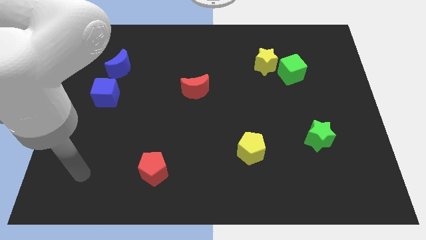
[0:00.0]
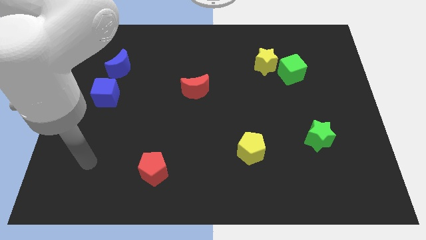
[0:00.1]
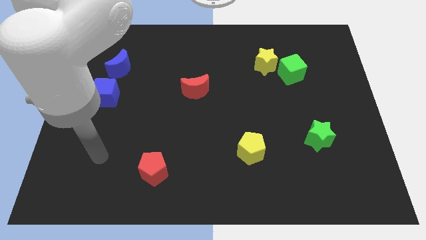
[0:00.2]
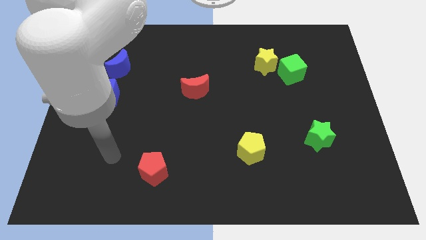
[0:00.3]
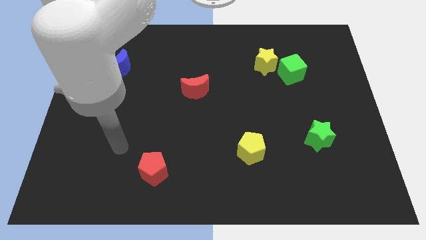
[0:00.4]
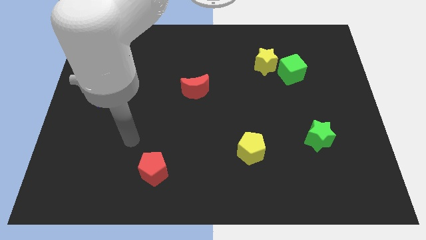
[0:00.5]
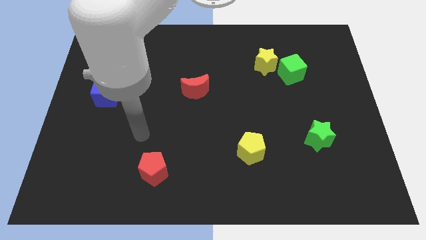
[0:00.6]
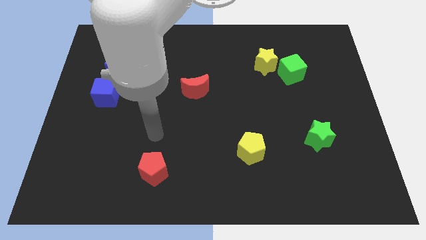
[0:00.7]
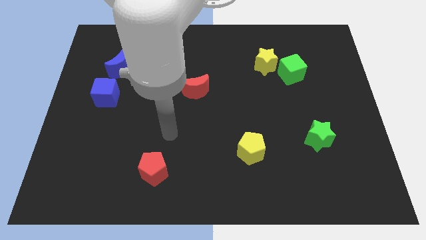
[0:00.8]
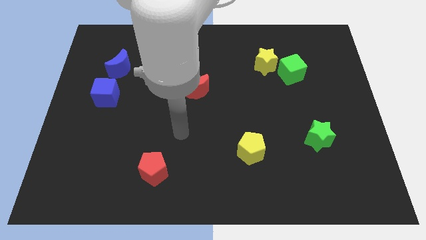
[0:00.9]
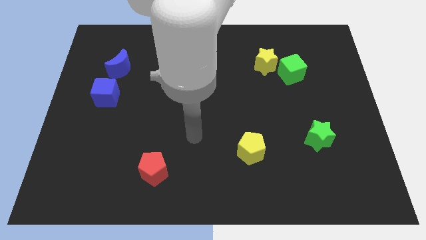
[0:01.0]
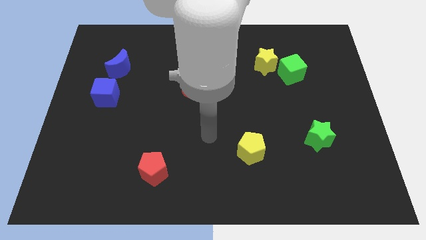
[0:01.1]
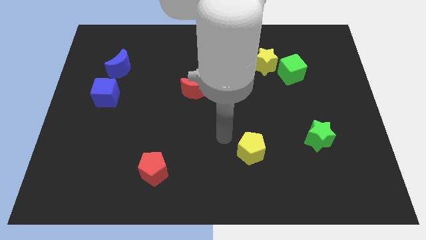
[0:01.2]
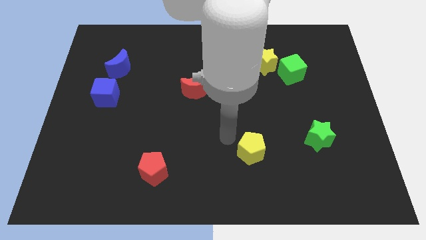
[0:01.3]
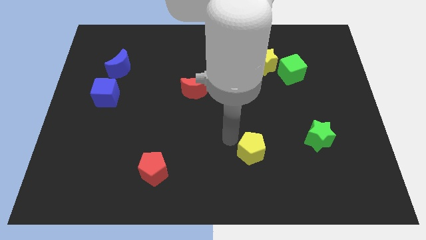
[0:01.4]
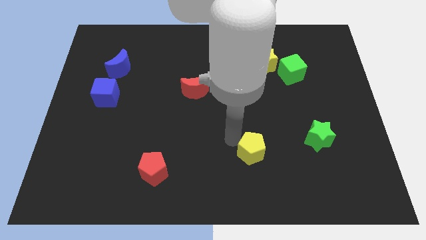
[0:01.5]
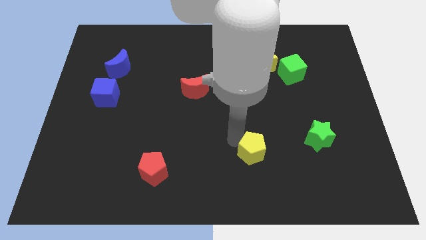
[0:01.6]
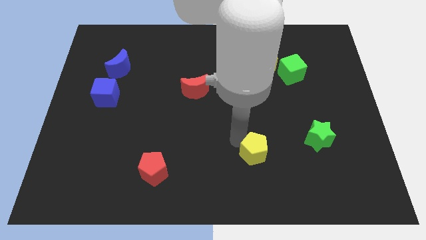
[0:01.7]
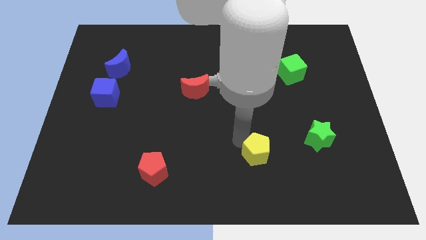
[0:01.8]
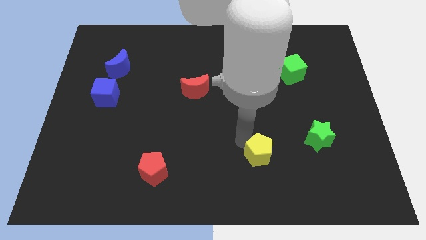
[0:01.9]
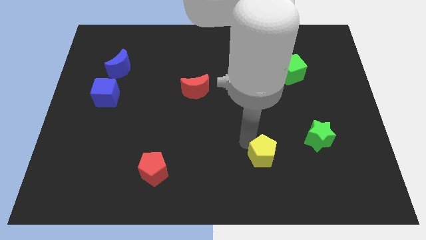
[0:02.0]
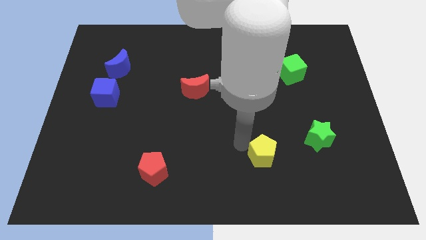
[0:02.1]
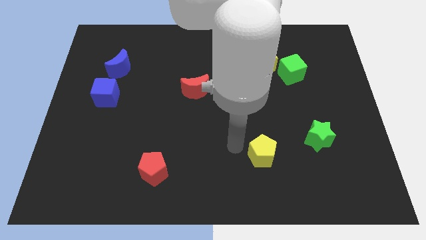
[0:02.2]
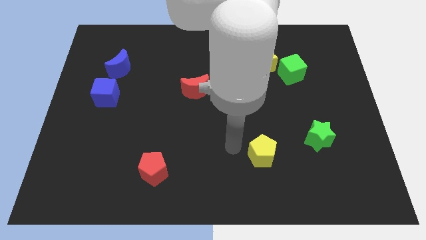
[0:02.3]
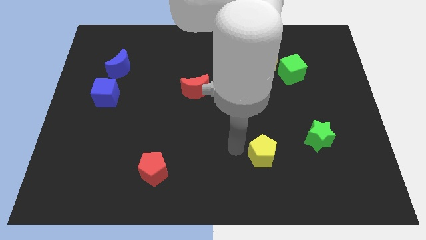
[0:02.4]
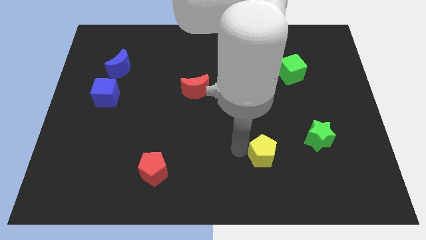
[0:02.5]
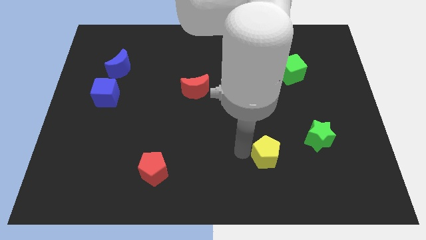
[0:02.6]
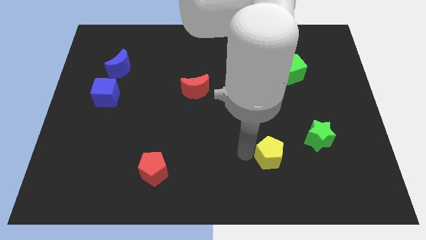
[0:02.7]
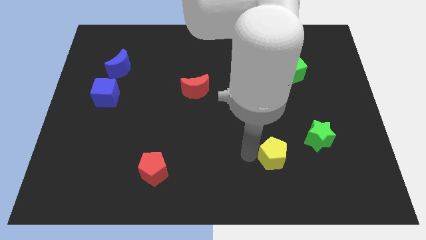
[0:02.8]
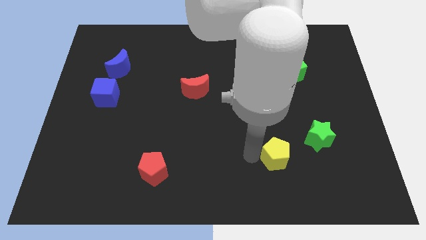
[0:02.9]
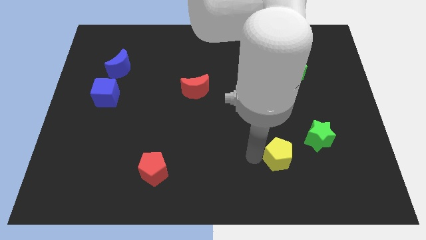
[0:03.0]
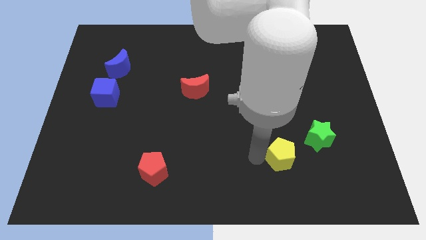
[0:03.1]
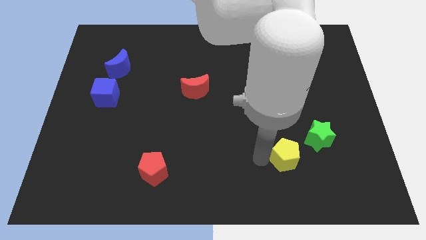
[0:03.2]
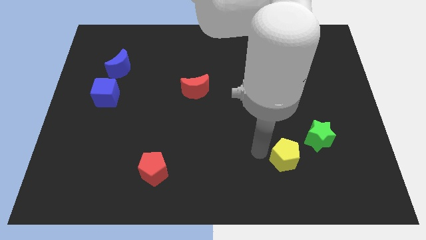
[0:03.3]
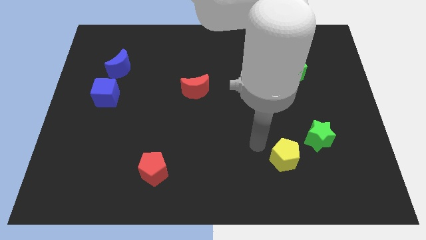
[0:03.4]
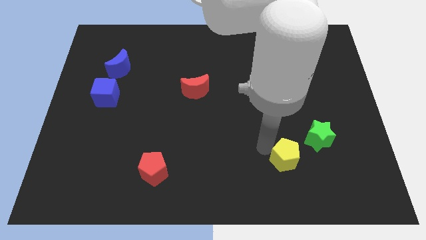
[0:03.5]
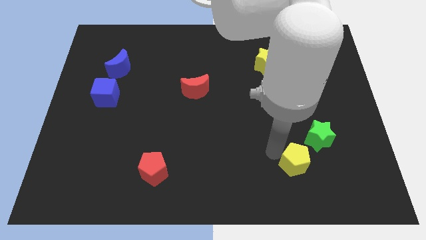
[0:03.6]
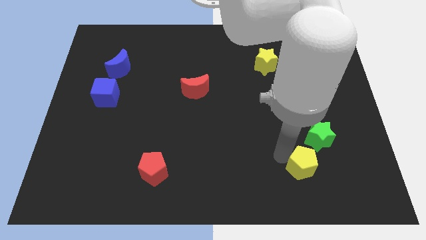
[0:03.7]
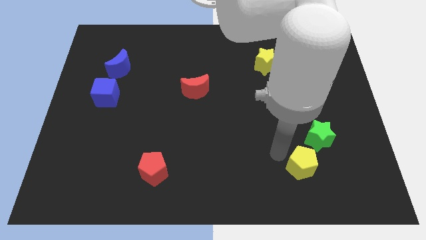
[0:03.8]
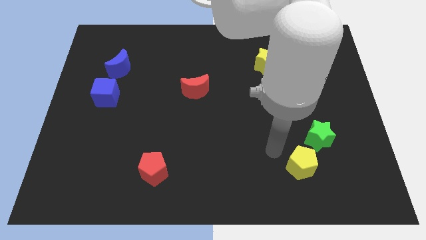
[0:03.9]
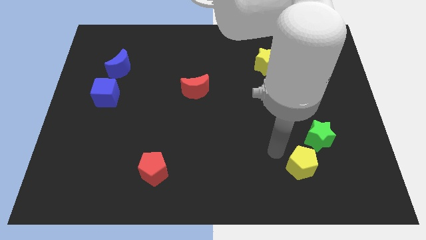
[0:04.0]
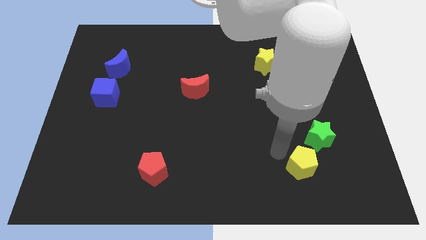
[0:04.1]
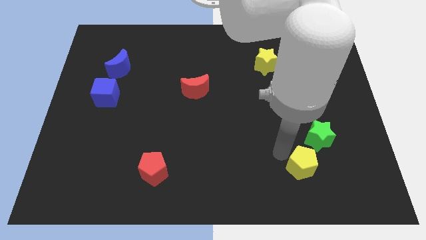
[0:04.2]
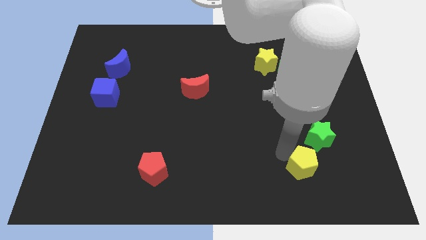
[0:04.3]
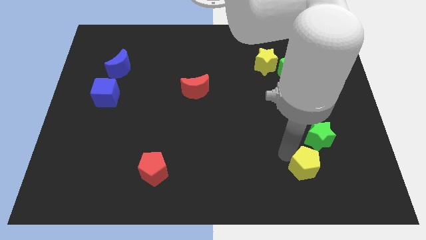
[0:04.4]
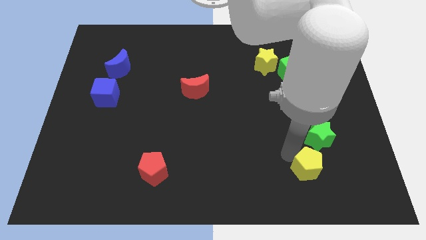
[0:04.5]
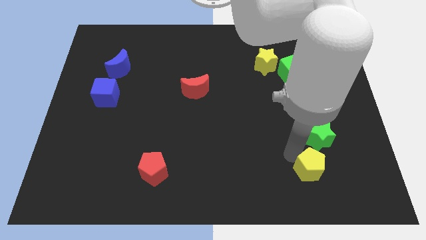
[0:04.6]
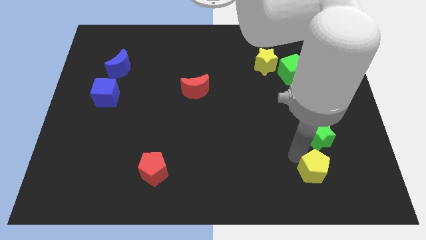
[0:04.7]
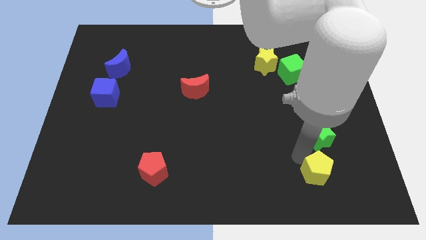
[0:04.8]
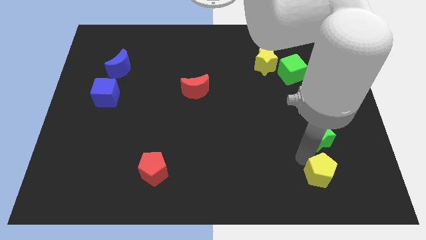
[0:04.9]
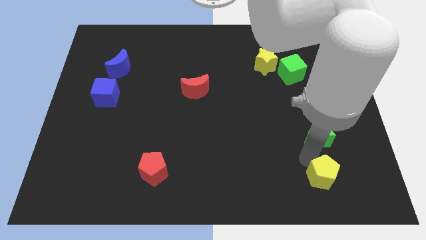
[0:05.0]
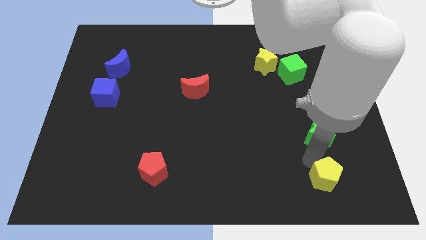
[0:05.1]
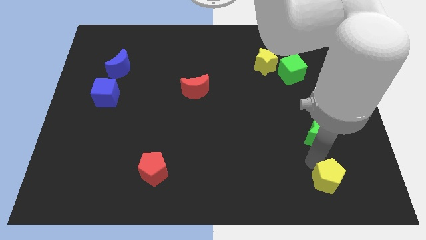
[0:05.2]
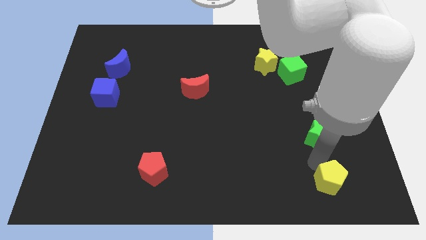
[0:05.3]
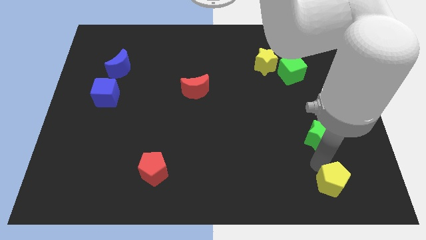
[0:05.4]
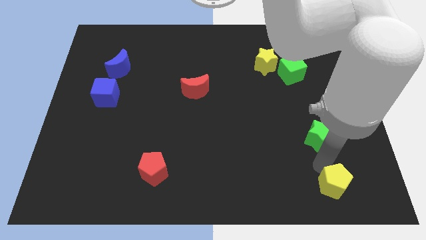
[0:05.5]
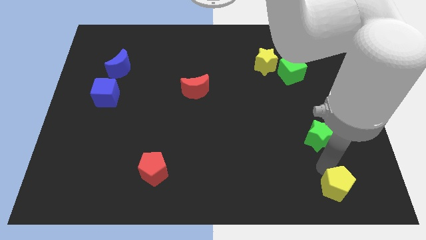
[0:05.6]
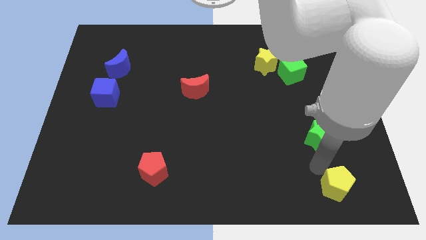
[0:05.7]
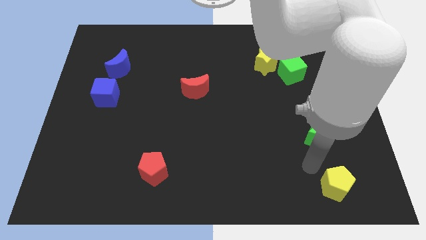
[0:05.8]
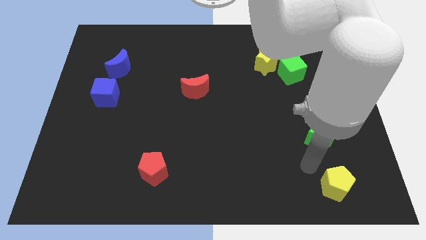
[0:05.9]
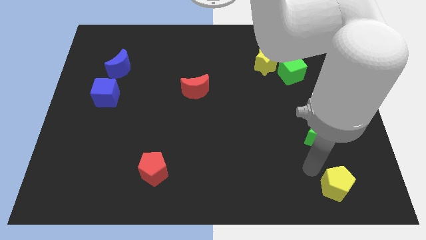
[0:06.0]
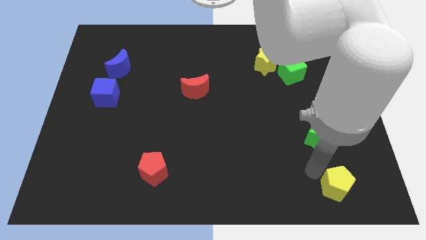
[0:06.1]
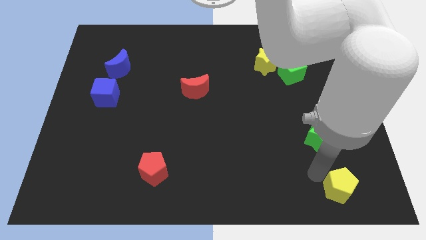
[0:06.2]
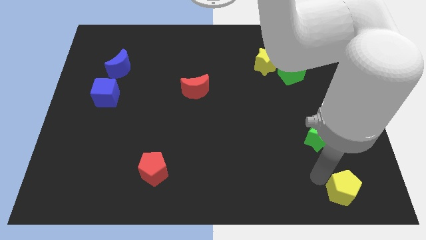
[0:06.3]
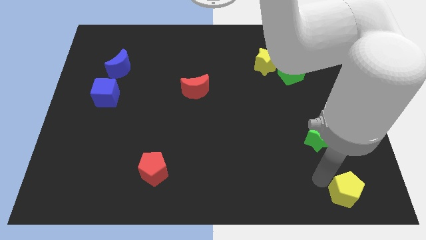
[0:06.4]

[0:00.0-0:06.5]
put the yellow pentagon to the bottom right of the board

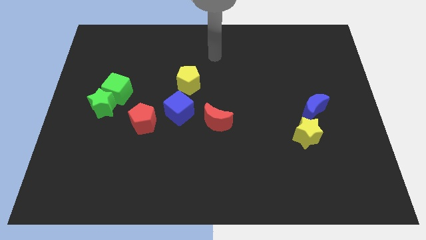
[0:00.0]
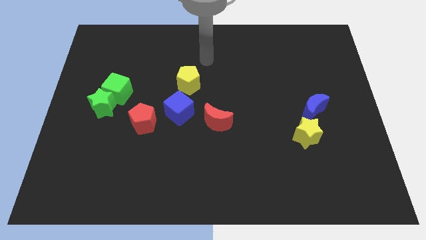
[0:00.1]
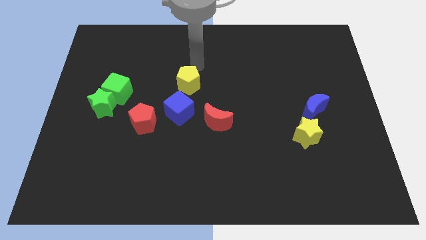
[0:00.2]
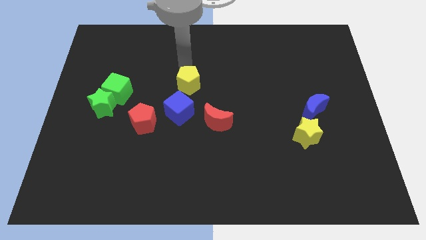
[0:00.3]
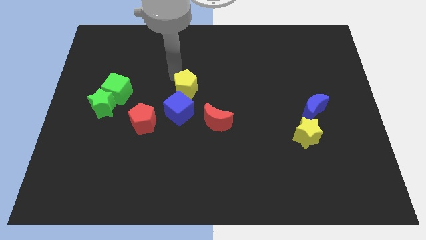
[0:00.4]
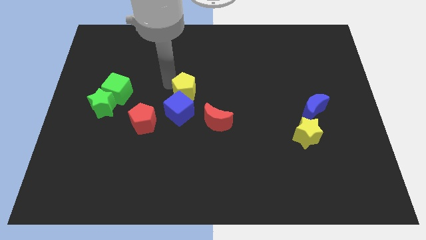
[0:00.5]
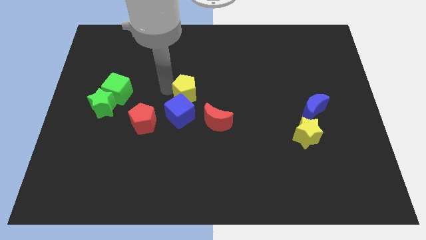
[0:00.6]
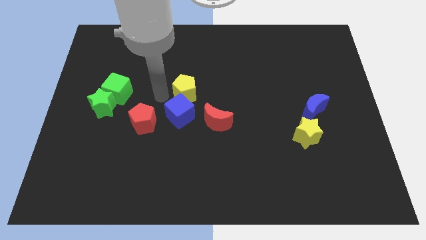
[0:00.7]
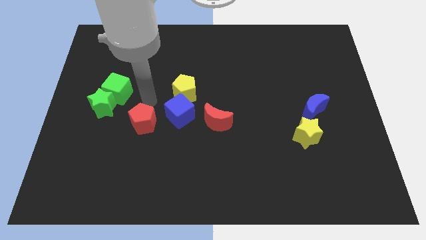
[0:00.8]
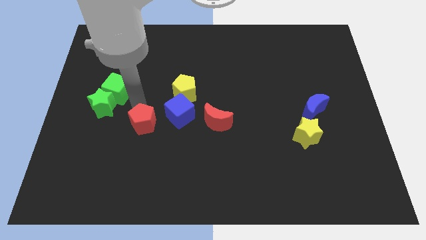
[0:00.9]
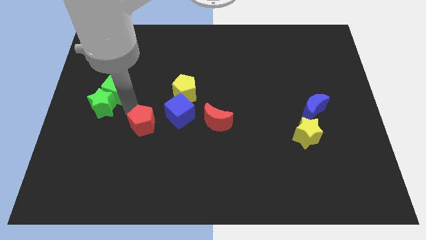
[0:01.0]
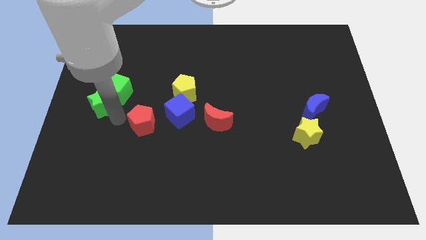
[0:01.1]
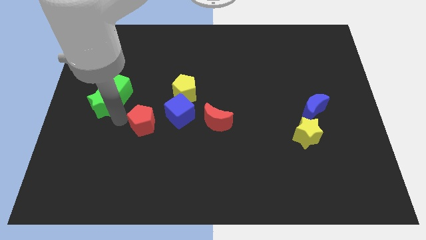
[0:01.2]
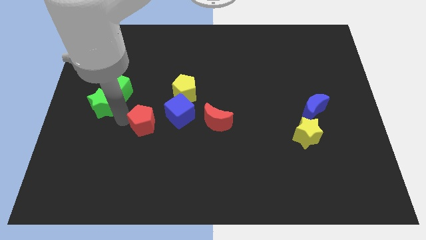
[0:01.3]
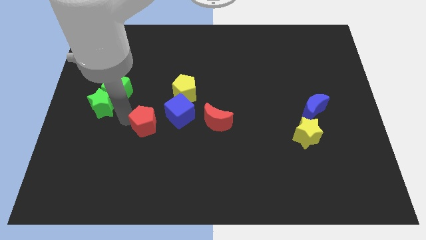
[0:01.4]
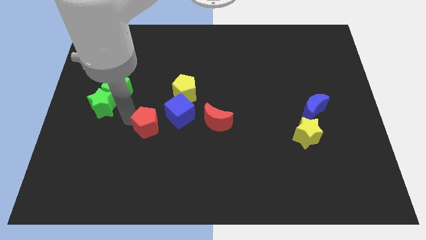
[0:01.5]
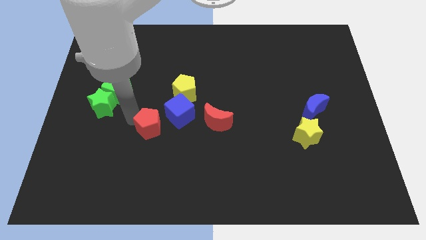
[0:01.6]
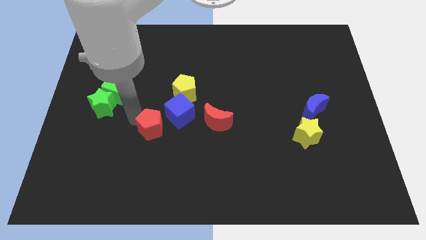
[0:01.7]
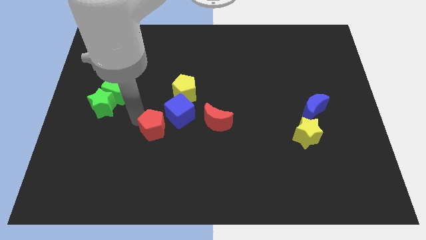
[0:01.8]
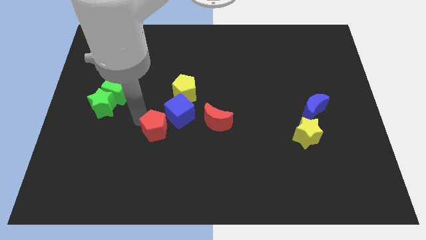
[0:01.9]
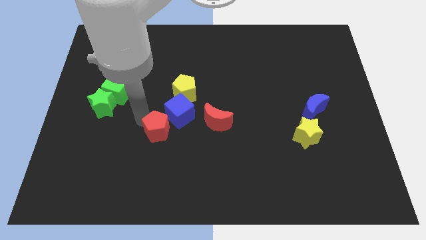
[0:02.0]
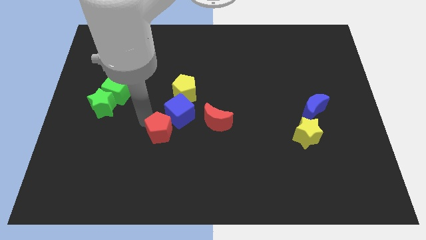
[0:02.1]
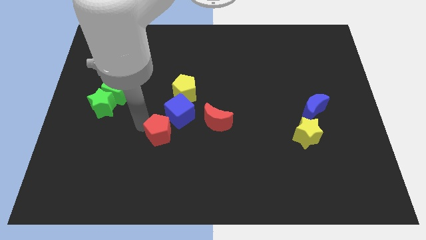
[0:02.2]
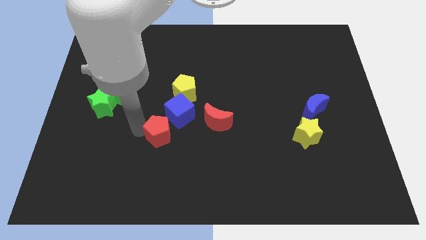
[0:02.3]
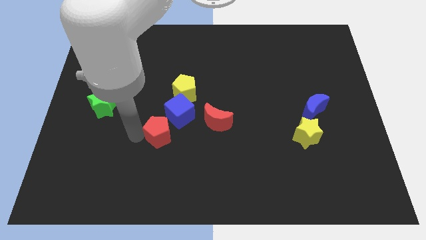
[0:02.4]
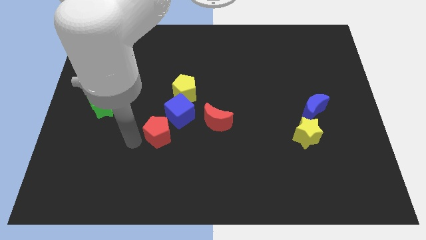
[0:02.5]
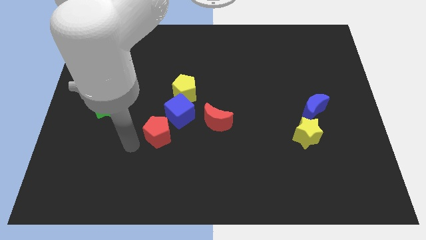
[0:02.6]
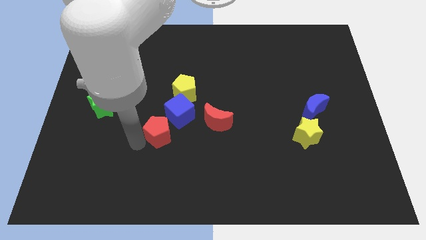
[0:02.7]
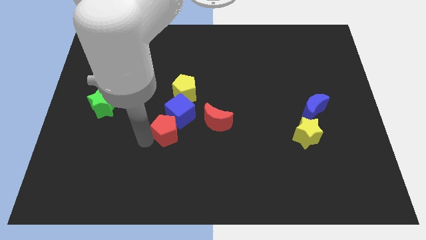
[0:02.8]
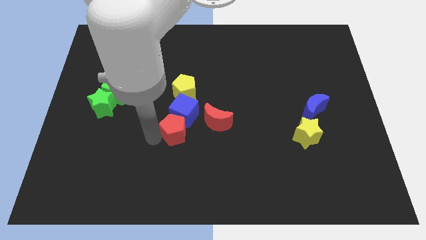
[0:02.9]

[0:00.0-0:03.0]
slide the red pentagon to the center of the board
